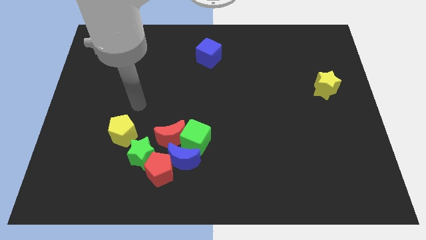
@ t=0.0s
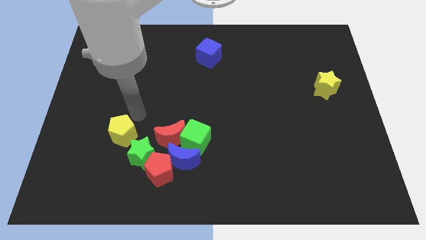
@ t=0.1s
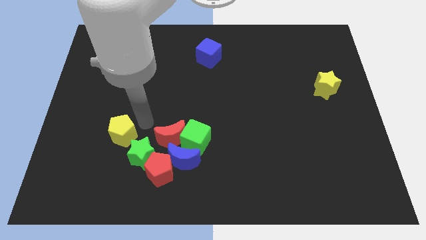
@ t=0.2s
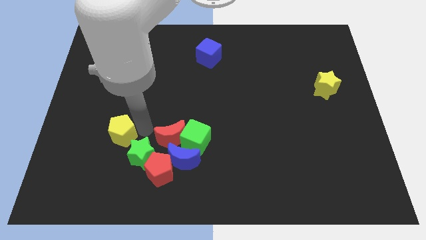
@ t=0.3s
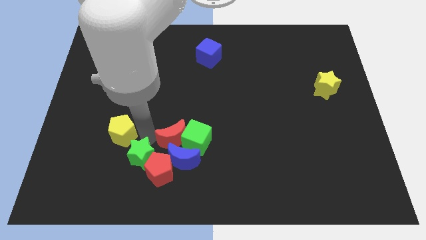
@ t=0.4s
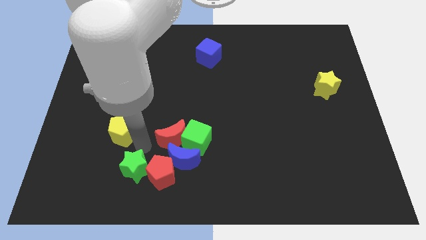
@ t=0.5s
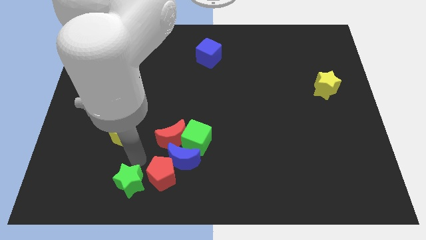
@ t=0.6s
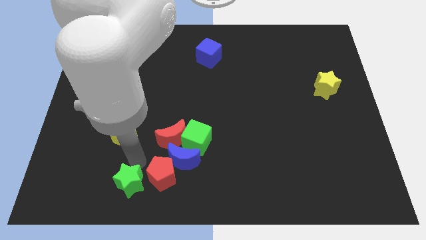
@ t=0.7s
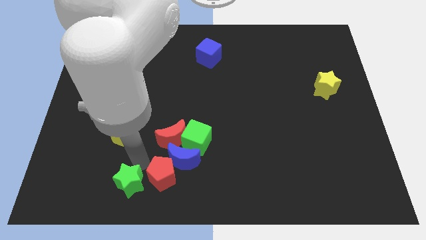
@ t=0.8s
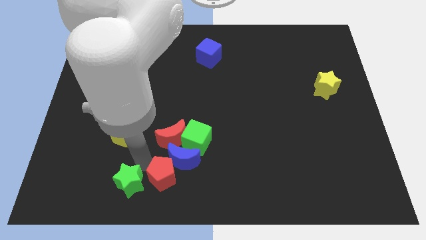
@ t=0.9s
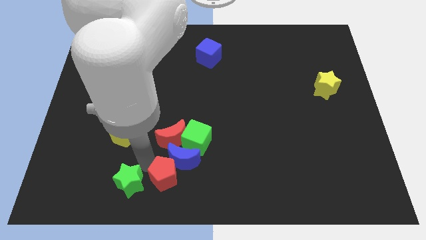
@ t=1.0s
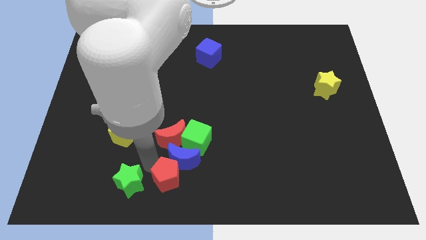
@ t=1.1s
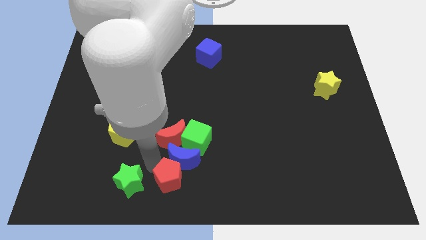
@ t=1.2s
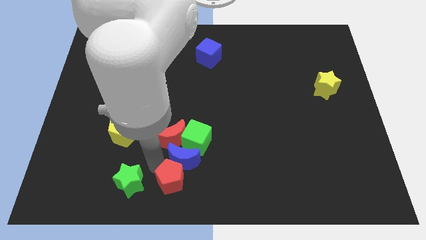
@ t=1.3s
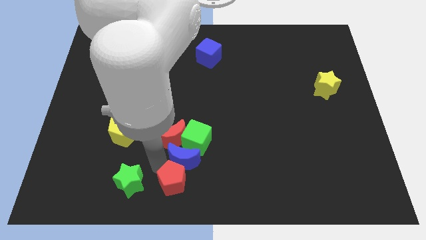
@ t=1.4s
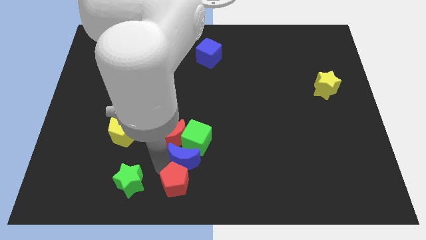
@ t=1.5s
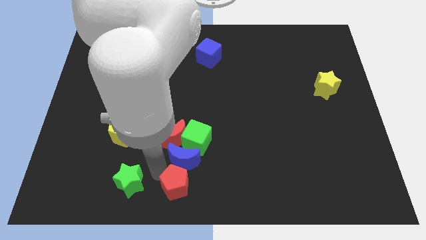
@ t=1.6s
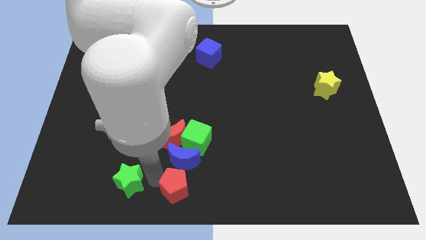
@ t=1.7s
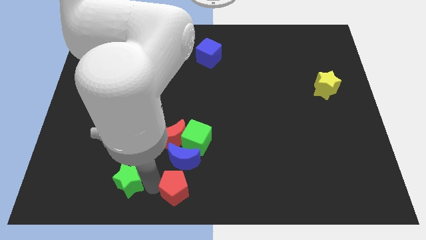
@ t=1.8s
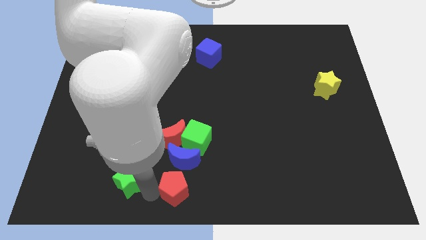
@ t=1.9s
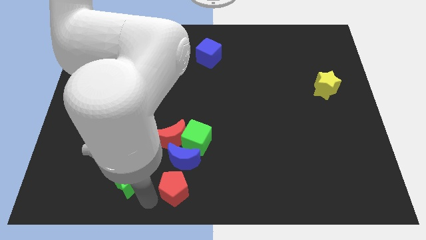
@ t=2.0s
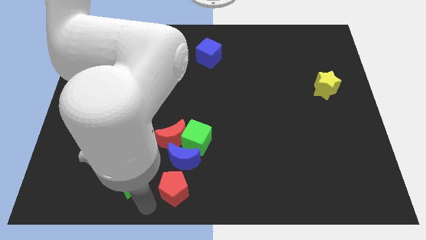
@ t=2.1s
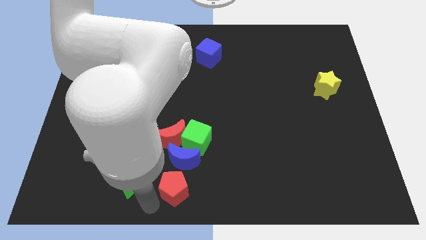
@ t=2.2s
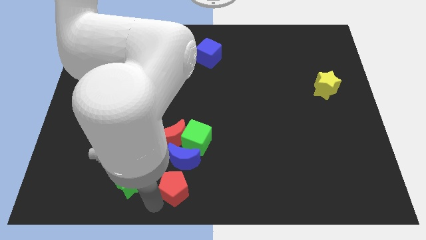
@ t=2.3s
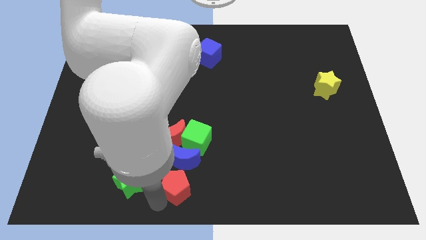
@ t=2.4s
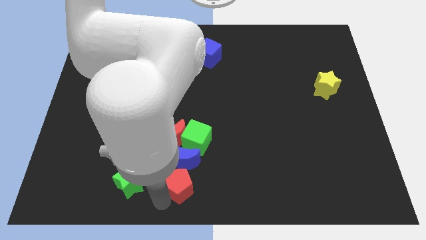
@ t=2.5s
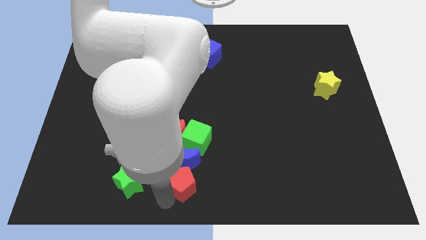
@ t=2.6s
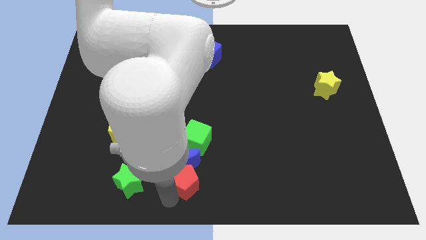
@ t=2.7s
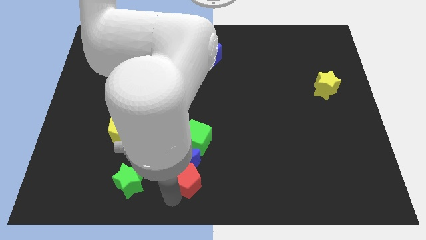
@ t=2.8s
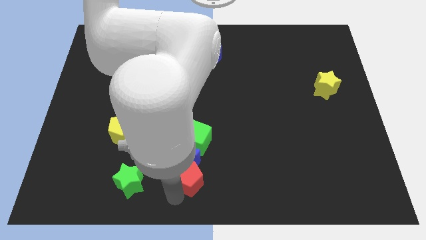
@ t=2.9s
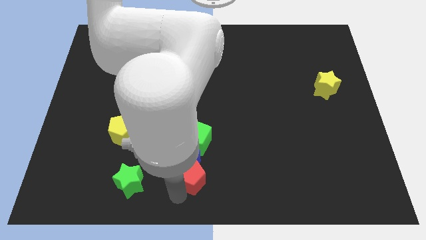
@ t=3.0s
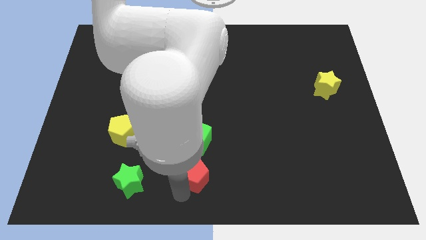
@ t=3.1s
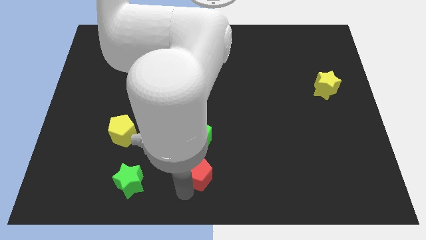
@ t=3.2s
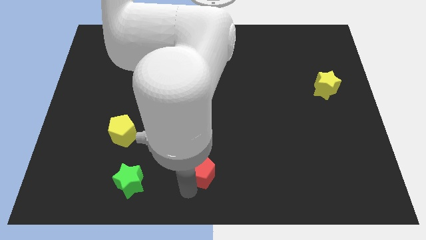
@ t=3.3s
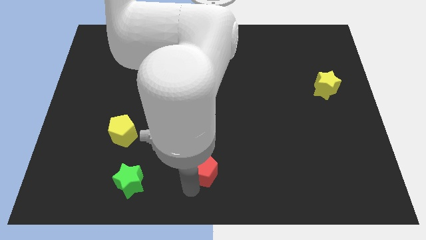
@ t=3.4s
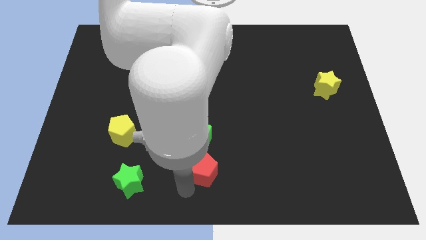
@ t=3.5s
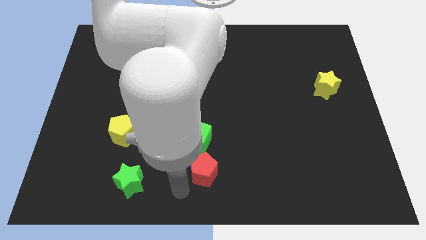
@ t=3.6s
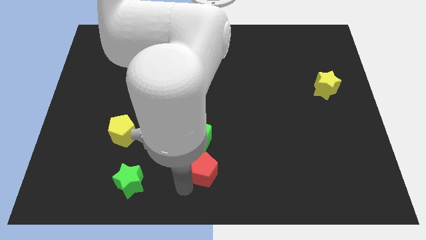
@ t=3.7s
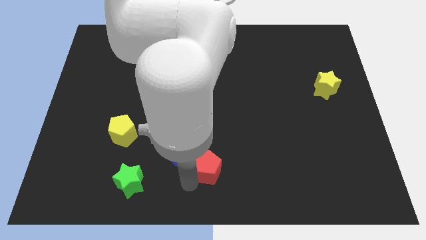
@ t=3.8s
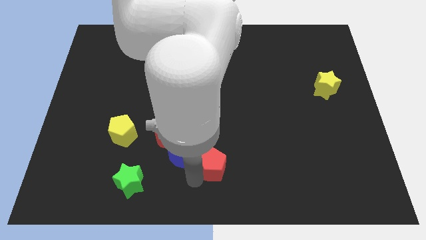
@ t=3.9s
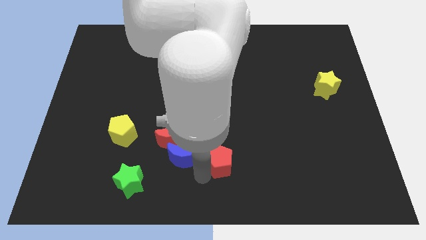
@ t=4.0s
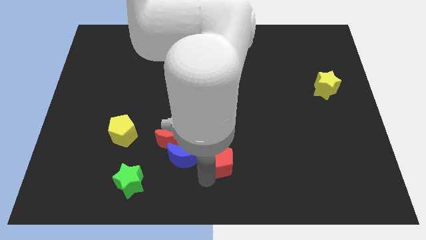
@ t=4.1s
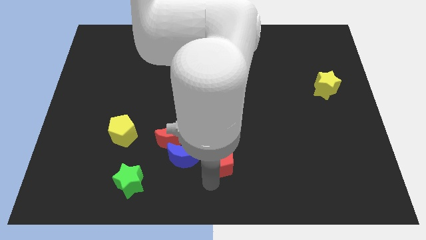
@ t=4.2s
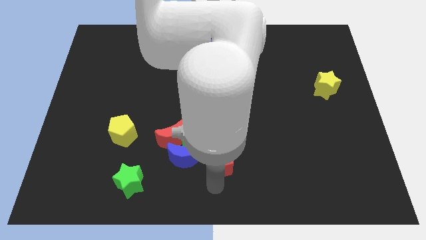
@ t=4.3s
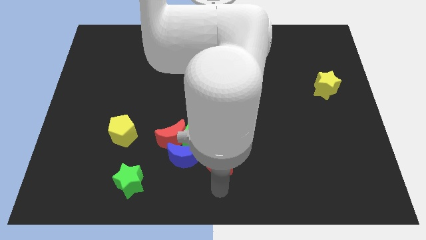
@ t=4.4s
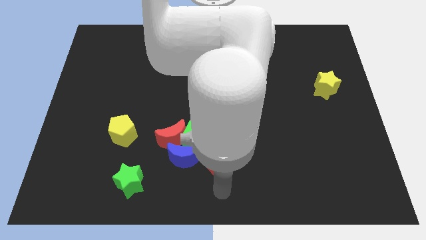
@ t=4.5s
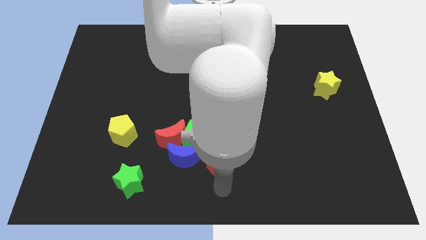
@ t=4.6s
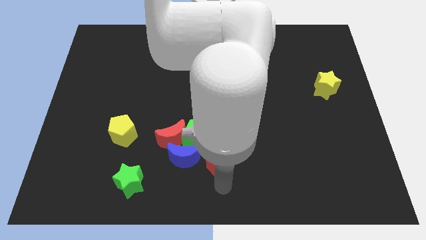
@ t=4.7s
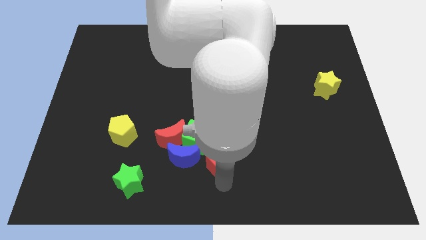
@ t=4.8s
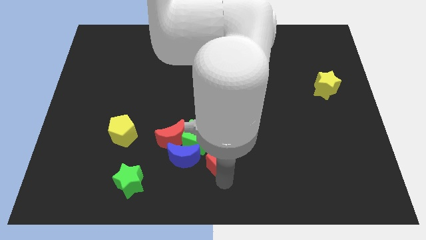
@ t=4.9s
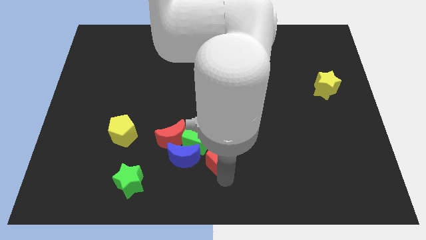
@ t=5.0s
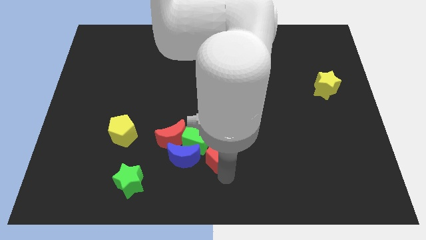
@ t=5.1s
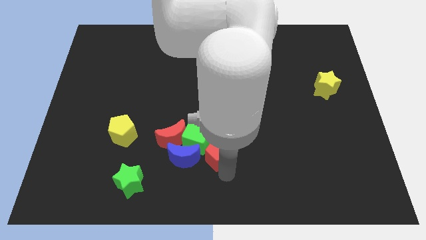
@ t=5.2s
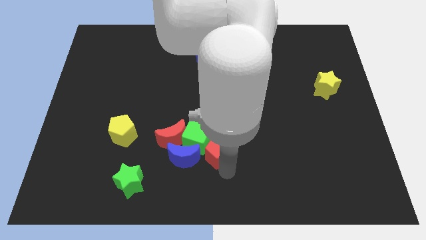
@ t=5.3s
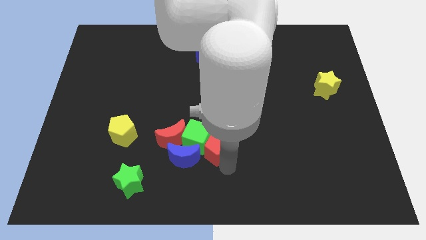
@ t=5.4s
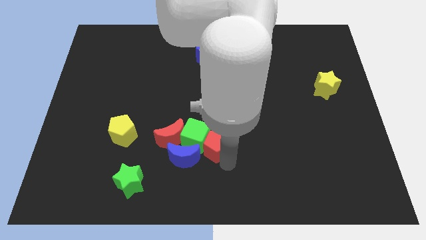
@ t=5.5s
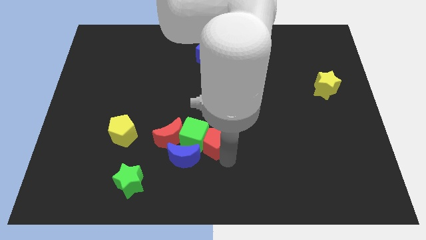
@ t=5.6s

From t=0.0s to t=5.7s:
put the red pentagon to the center
